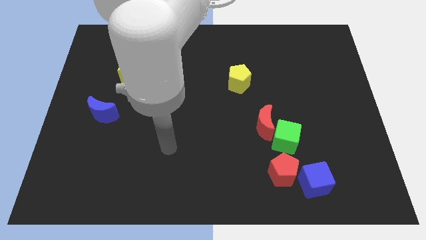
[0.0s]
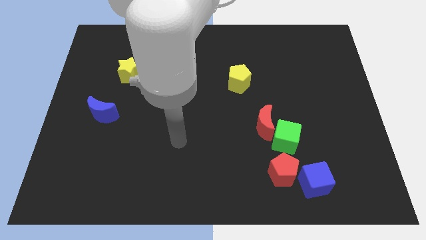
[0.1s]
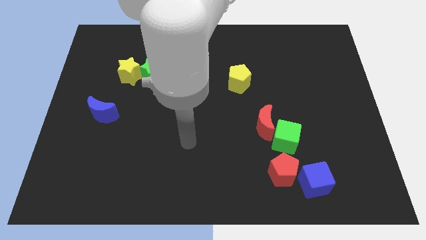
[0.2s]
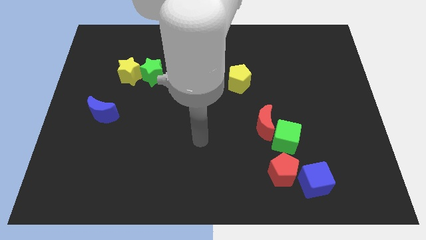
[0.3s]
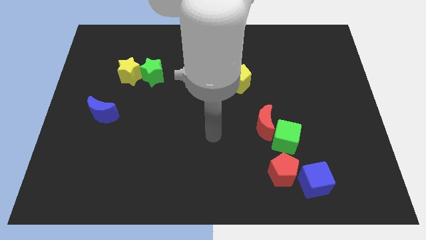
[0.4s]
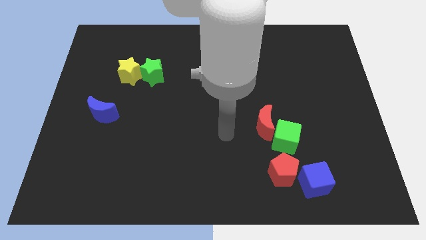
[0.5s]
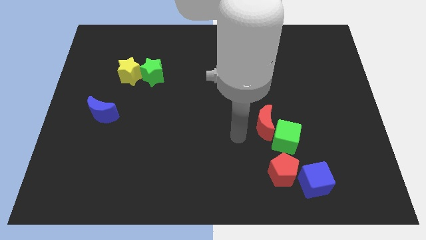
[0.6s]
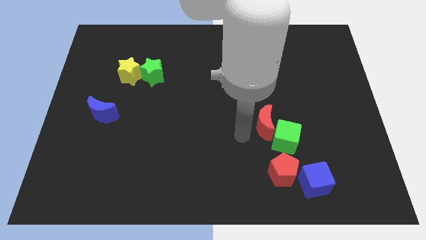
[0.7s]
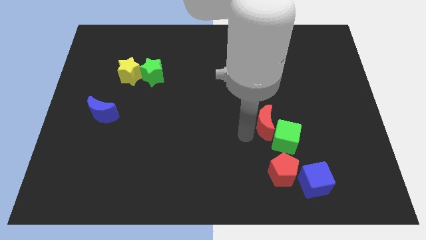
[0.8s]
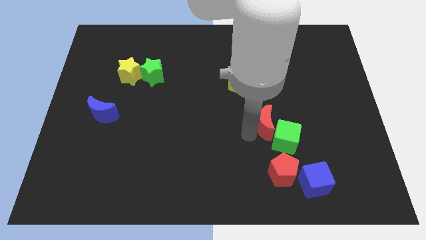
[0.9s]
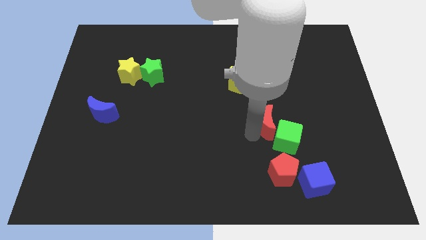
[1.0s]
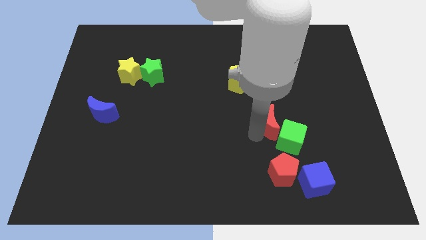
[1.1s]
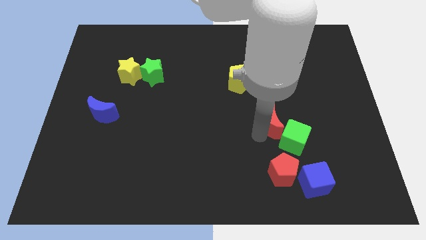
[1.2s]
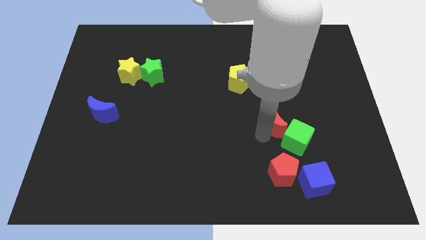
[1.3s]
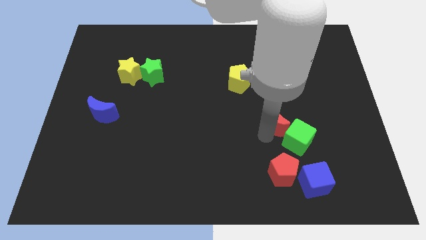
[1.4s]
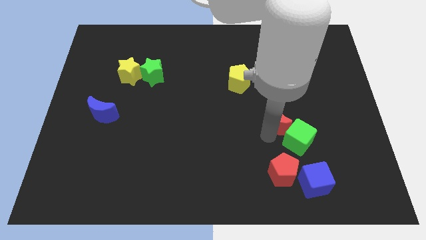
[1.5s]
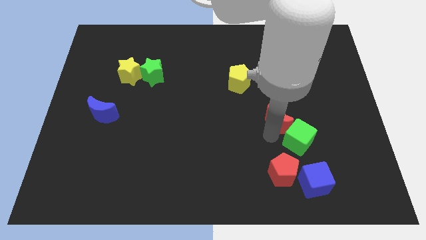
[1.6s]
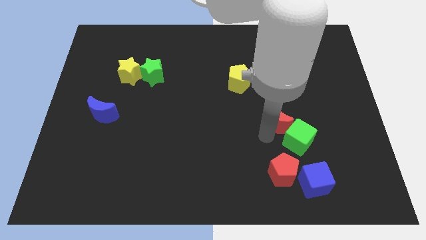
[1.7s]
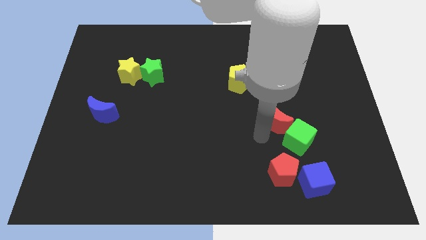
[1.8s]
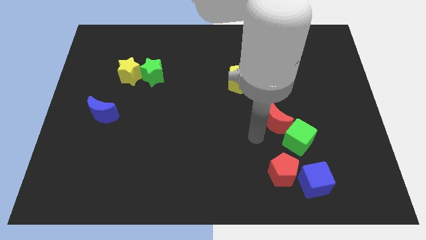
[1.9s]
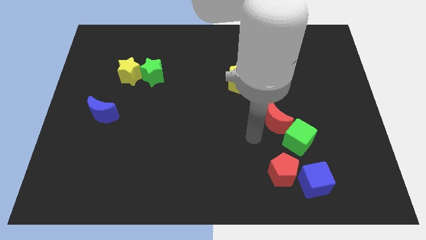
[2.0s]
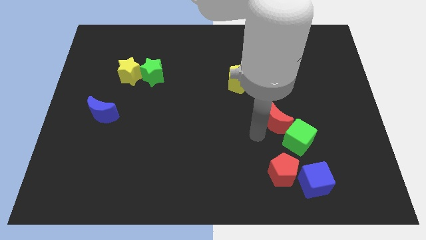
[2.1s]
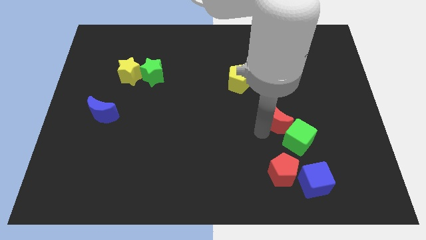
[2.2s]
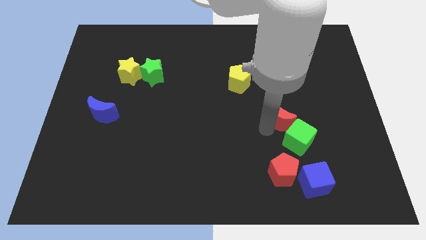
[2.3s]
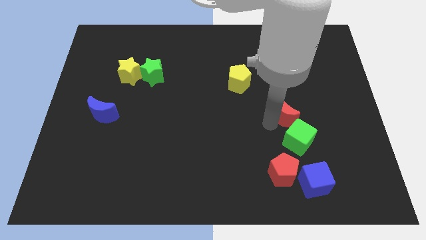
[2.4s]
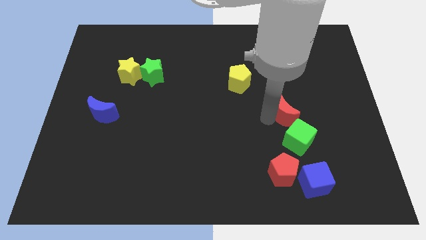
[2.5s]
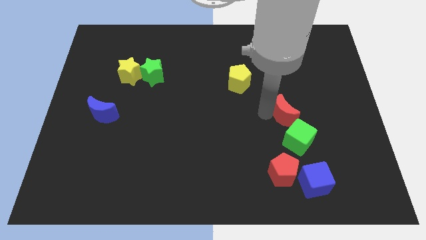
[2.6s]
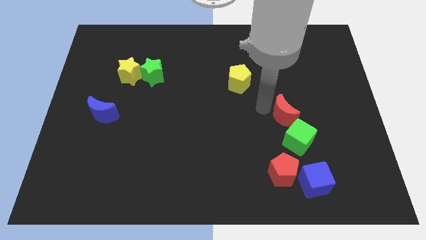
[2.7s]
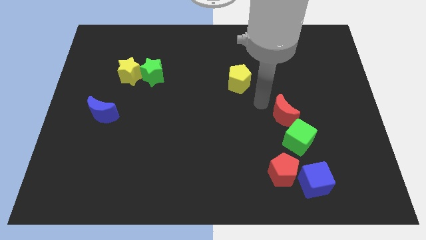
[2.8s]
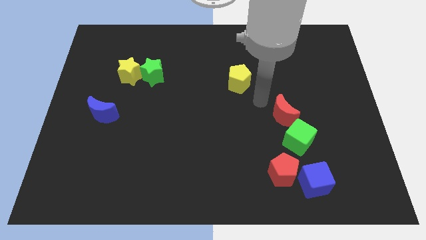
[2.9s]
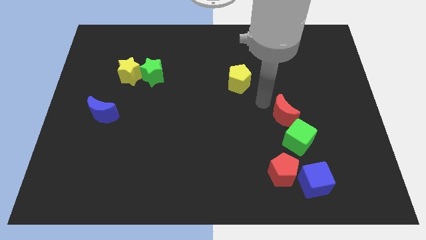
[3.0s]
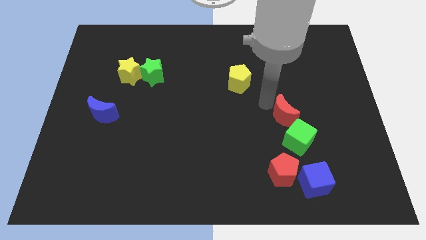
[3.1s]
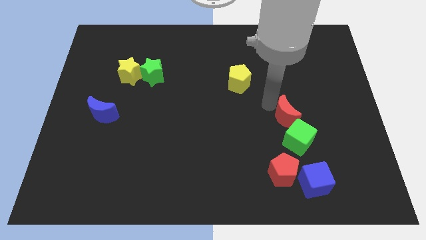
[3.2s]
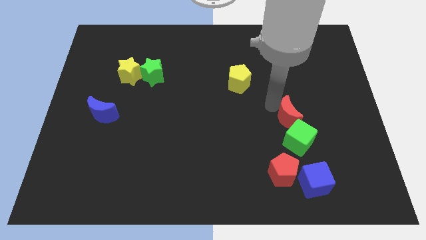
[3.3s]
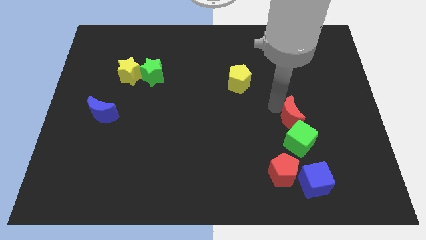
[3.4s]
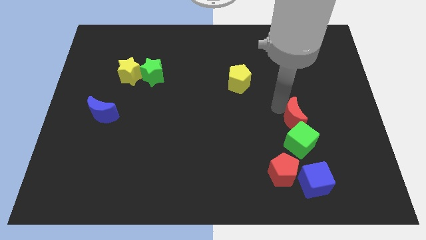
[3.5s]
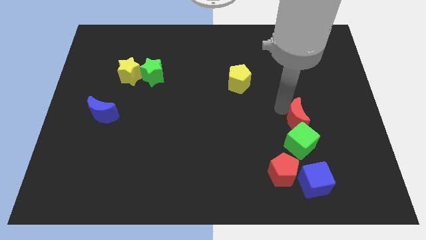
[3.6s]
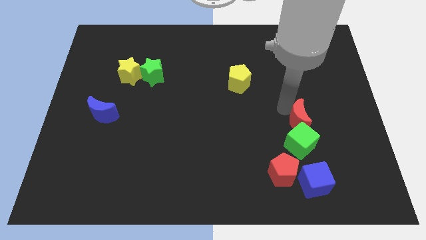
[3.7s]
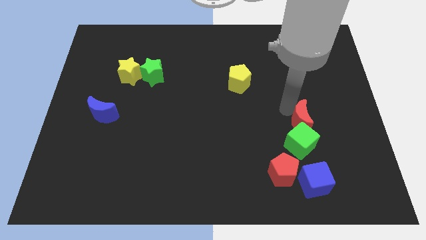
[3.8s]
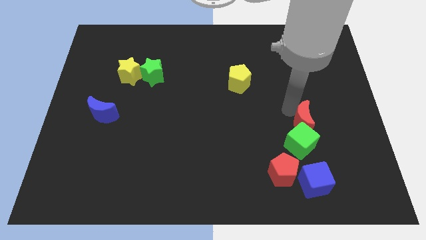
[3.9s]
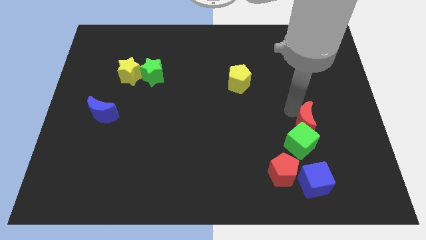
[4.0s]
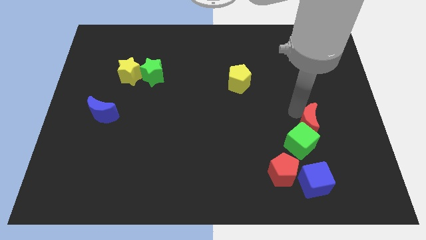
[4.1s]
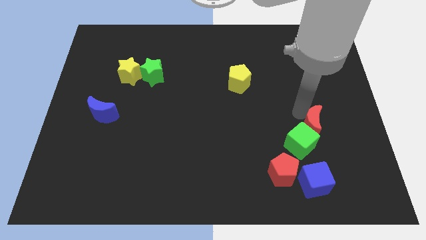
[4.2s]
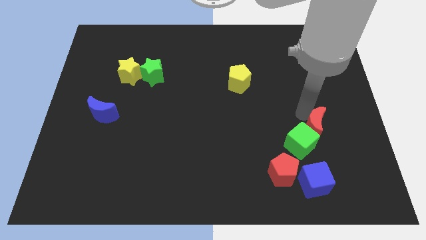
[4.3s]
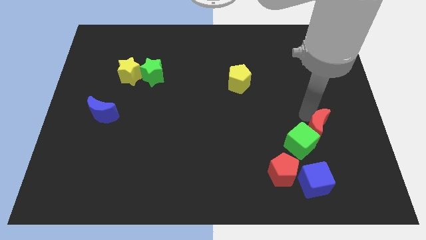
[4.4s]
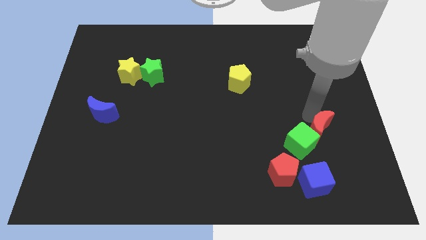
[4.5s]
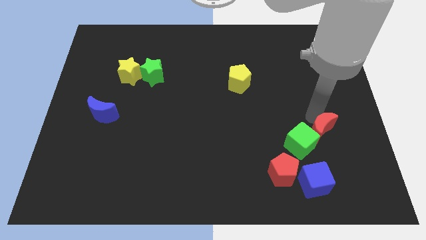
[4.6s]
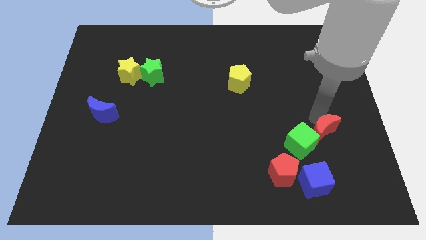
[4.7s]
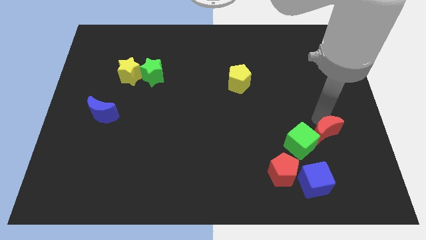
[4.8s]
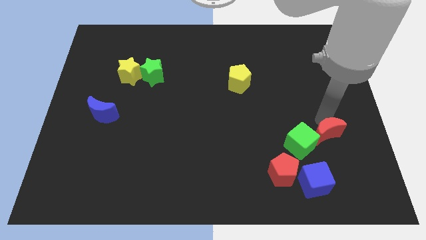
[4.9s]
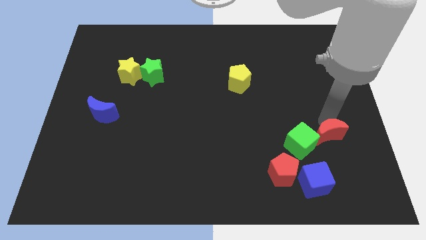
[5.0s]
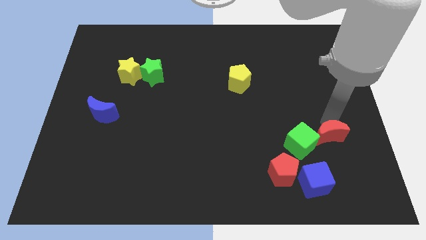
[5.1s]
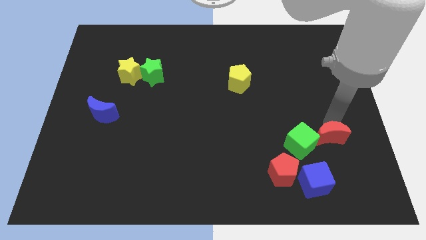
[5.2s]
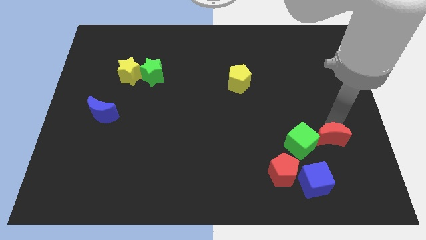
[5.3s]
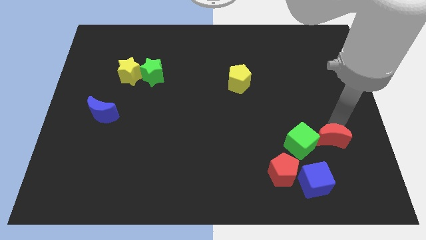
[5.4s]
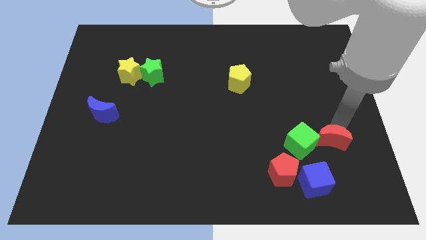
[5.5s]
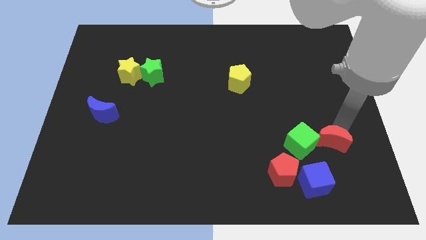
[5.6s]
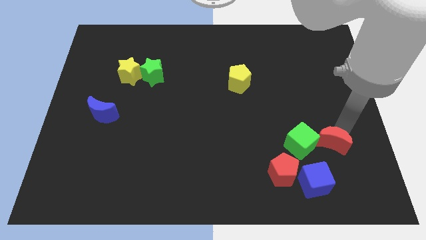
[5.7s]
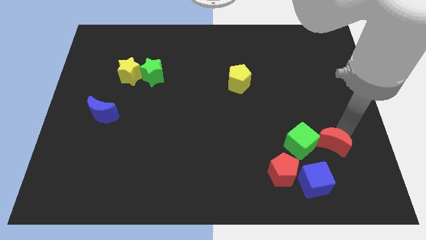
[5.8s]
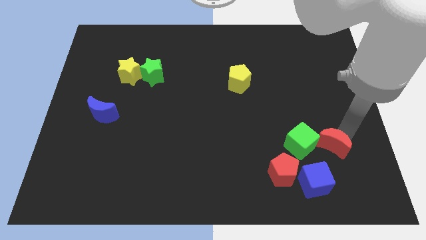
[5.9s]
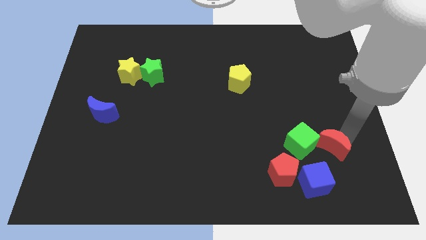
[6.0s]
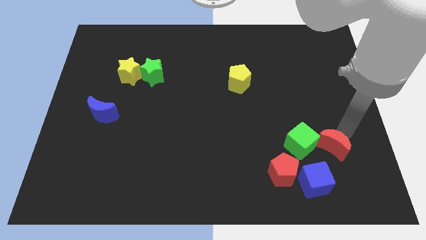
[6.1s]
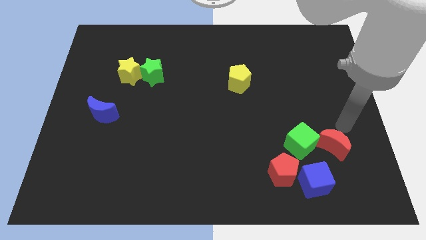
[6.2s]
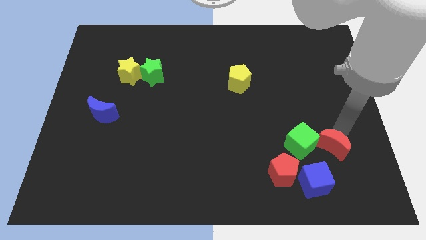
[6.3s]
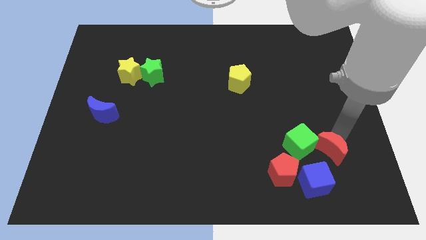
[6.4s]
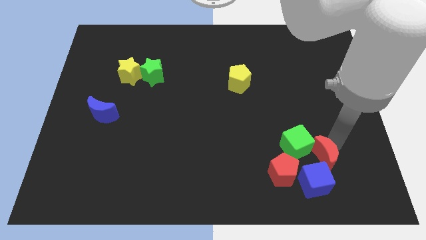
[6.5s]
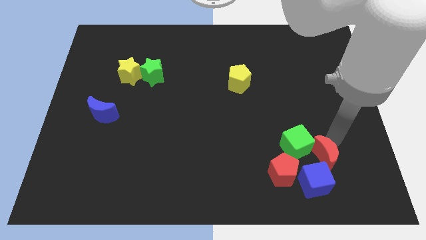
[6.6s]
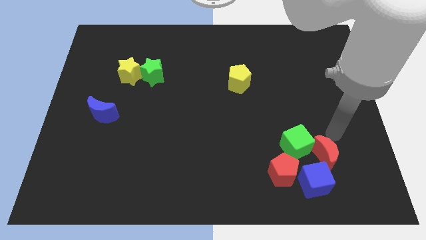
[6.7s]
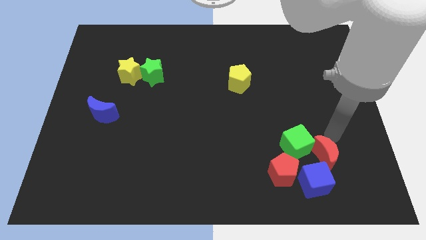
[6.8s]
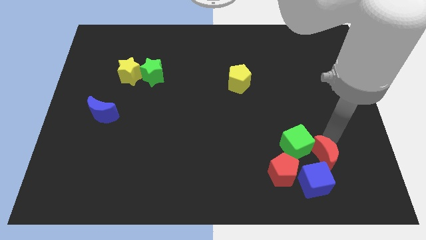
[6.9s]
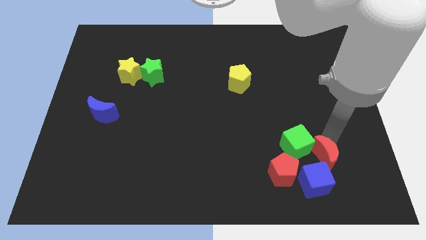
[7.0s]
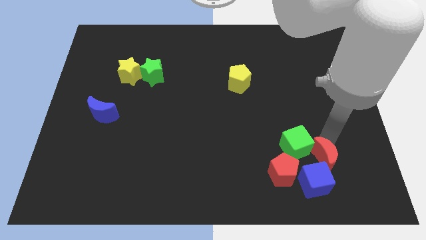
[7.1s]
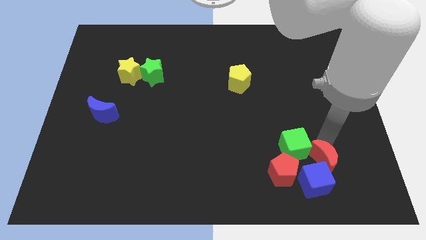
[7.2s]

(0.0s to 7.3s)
move the red moon towards the blue cube

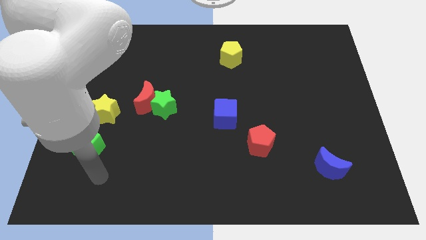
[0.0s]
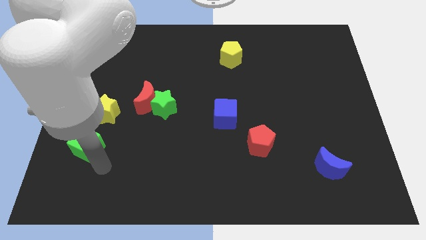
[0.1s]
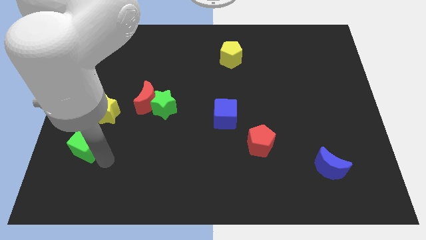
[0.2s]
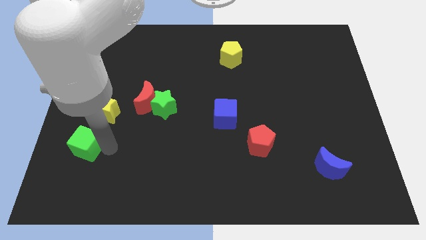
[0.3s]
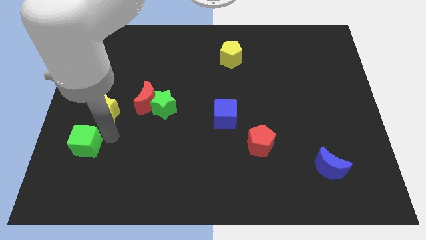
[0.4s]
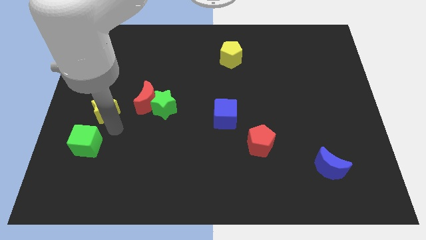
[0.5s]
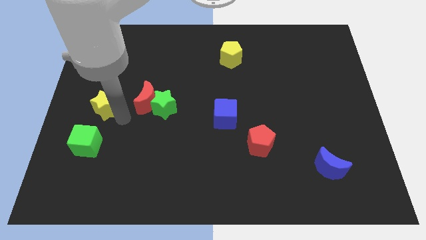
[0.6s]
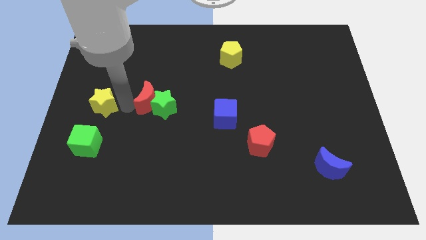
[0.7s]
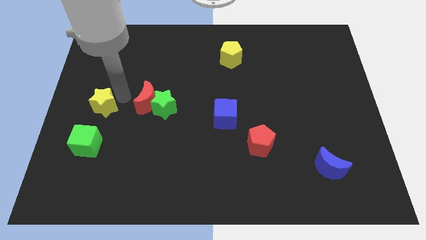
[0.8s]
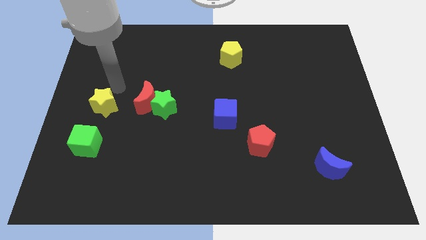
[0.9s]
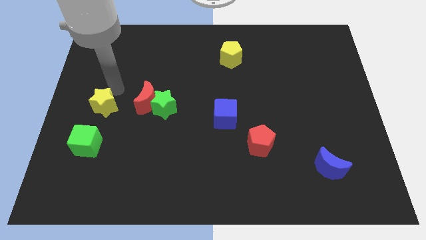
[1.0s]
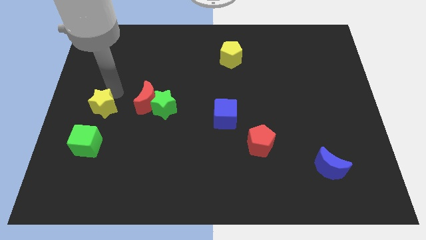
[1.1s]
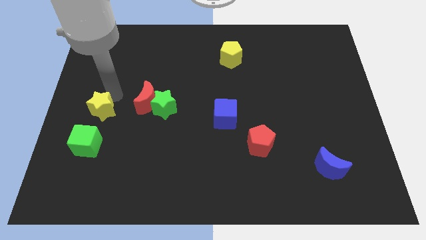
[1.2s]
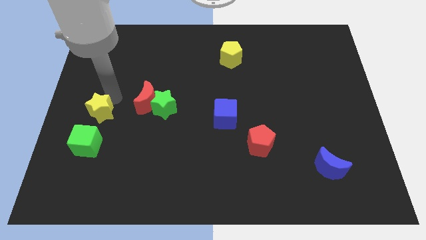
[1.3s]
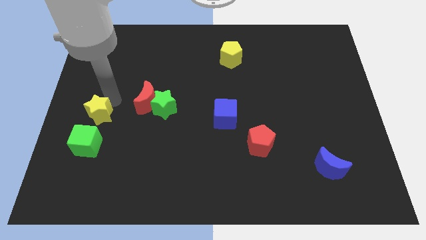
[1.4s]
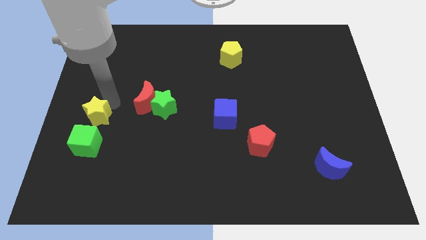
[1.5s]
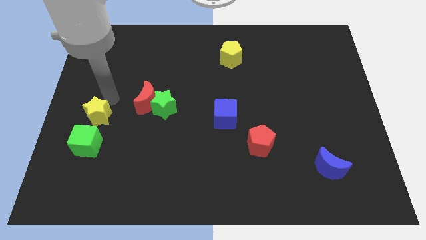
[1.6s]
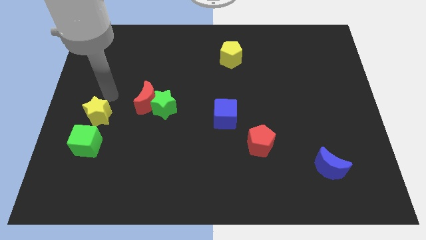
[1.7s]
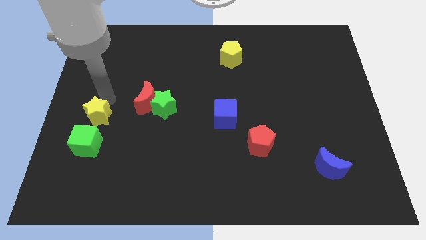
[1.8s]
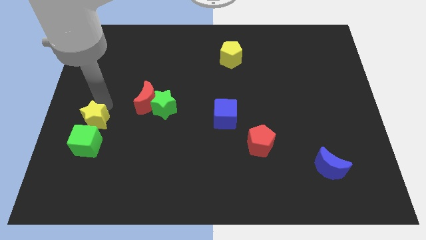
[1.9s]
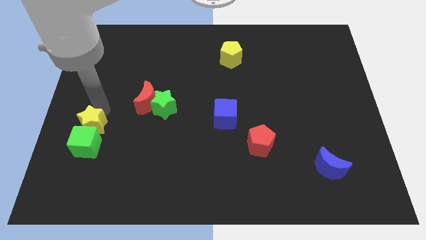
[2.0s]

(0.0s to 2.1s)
put the yellow star next to the green cube
